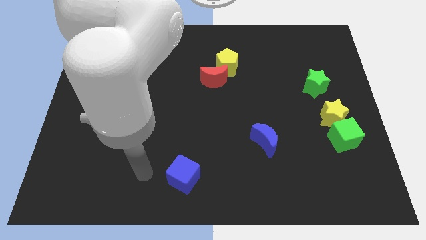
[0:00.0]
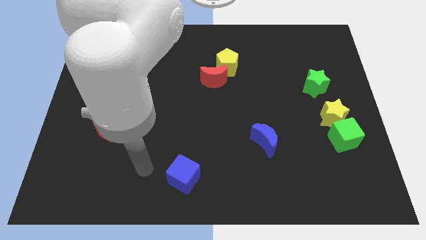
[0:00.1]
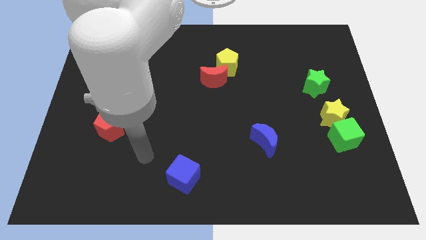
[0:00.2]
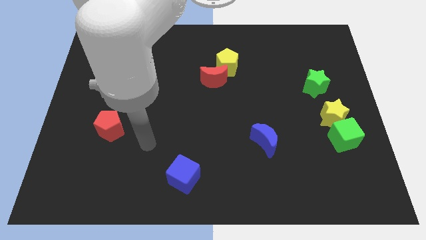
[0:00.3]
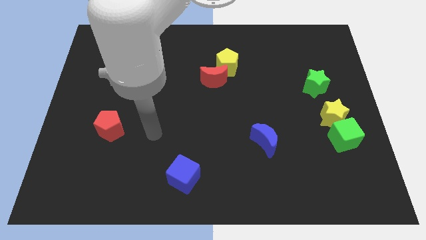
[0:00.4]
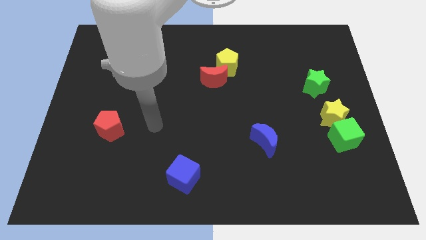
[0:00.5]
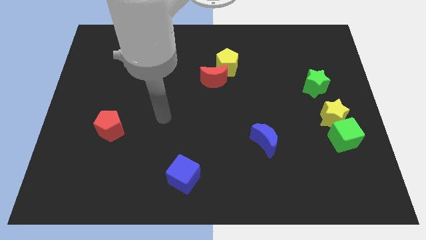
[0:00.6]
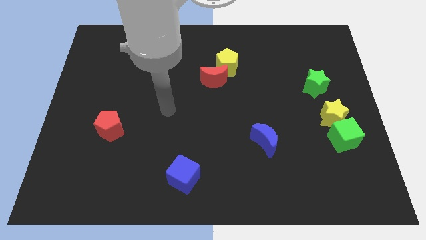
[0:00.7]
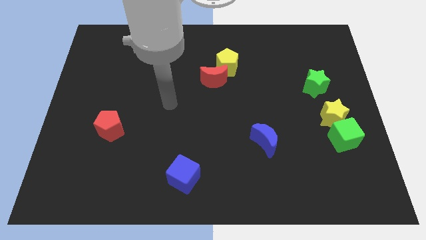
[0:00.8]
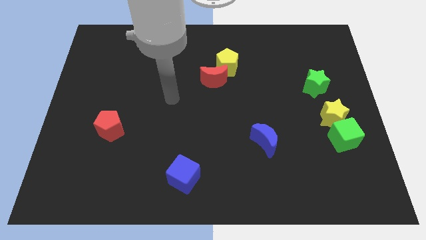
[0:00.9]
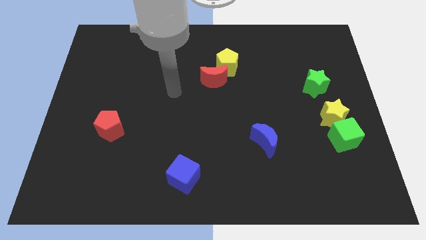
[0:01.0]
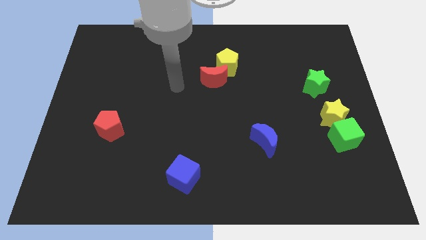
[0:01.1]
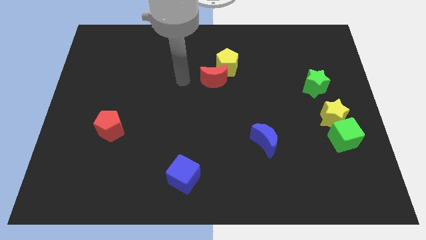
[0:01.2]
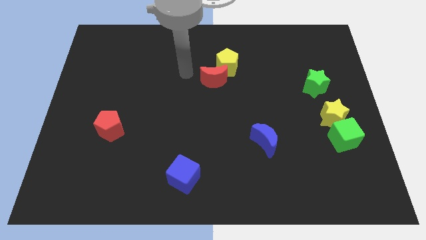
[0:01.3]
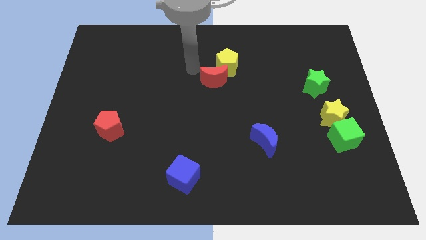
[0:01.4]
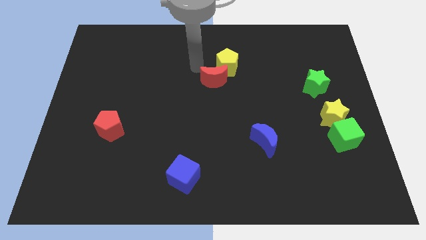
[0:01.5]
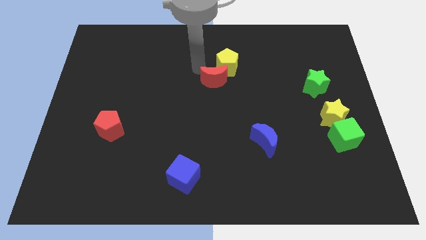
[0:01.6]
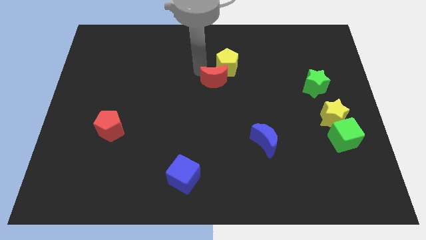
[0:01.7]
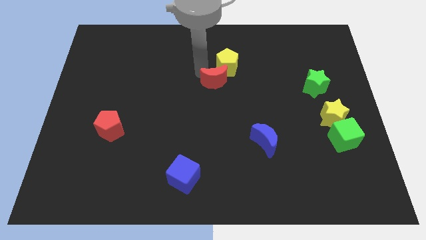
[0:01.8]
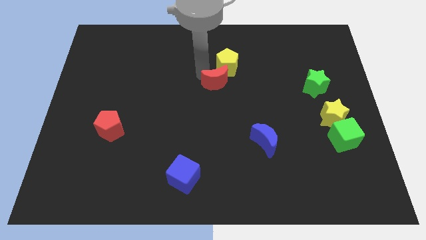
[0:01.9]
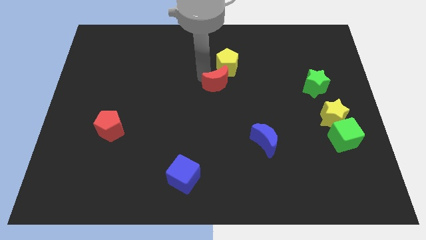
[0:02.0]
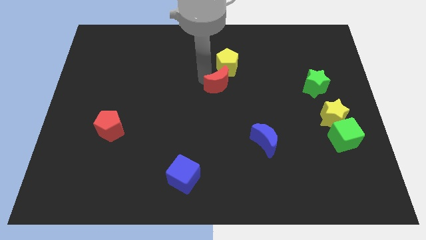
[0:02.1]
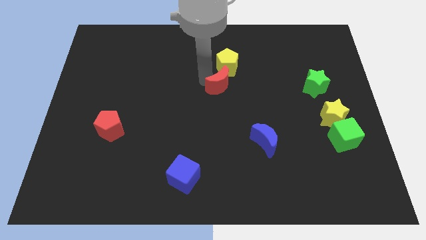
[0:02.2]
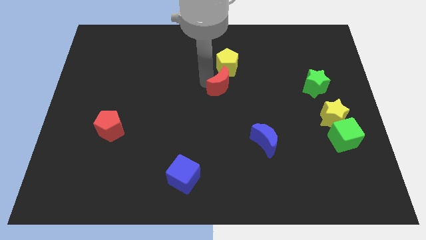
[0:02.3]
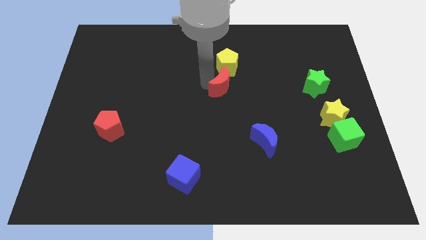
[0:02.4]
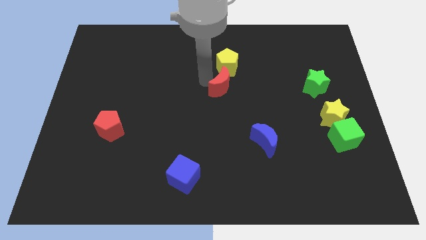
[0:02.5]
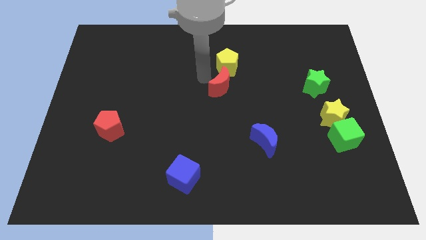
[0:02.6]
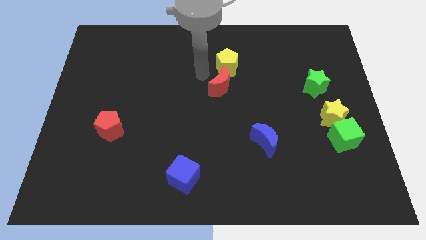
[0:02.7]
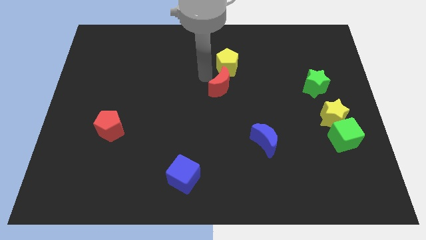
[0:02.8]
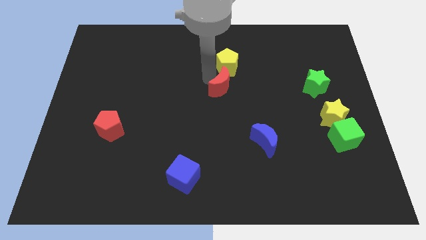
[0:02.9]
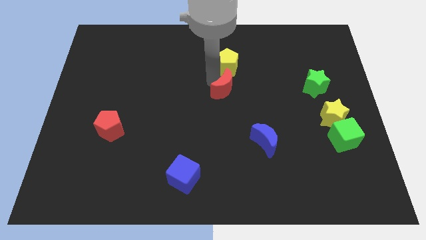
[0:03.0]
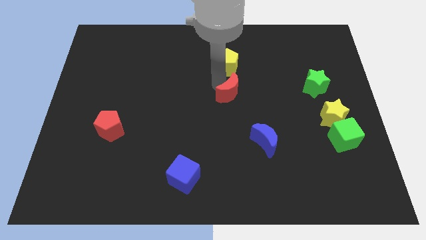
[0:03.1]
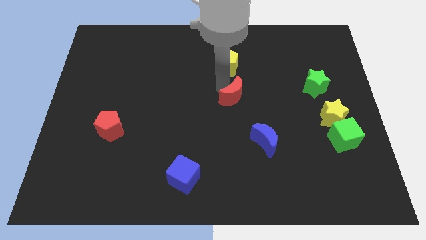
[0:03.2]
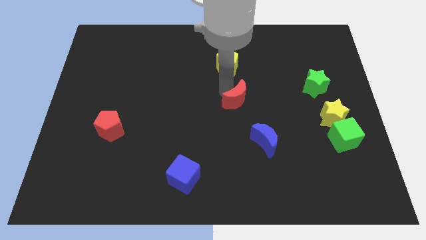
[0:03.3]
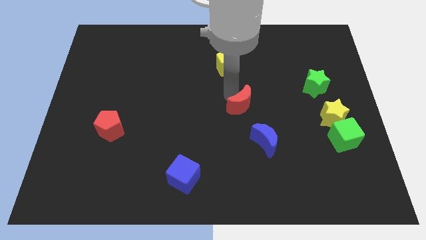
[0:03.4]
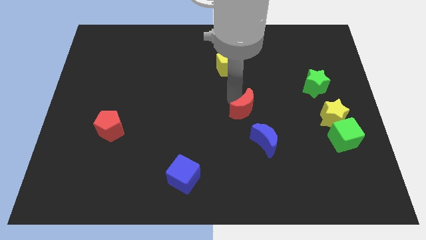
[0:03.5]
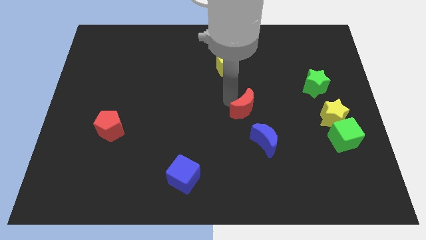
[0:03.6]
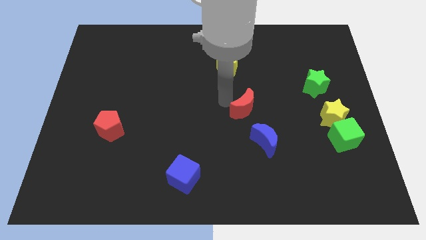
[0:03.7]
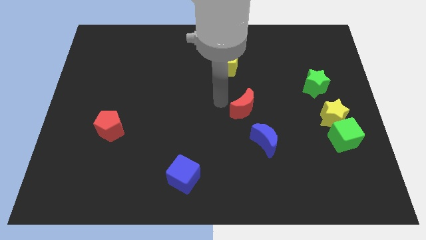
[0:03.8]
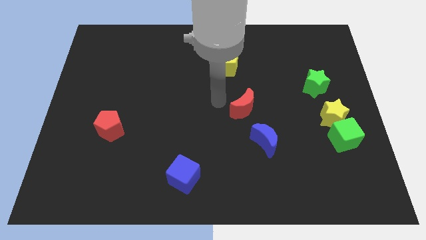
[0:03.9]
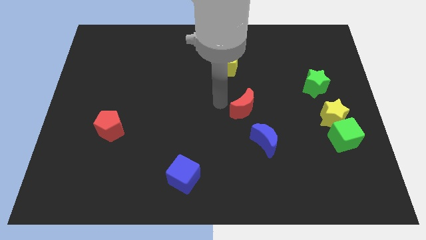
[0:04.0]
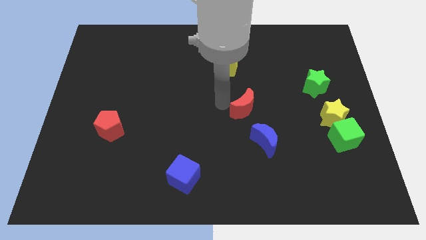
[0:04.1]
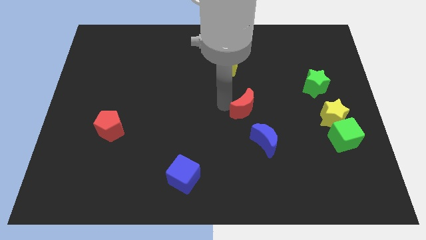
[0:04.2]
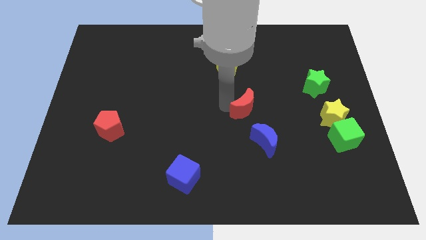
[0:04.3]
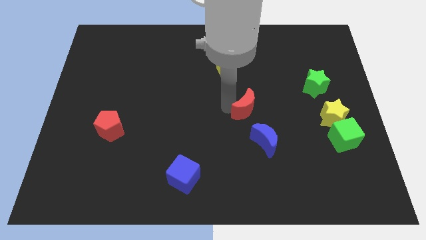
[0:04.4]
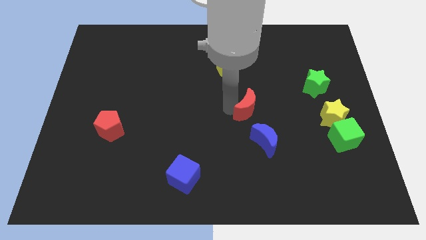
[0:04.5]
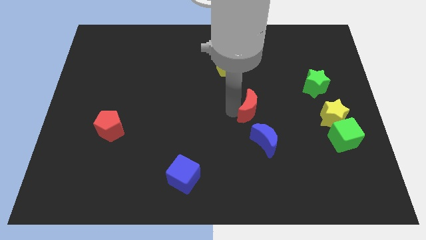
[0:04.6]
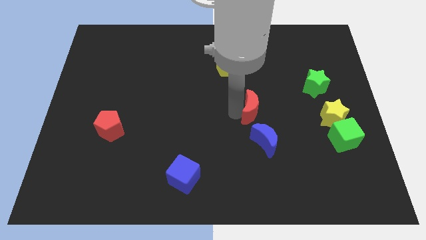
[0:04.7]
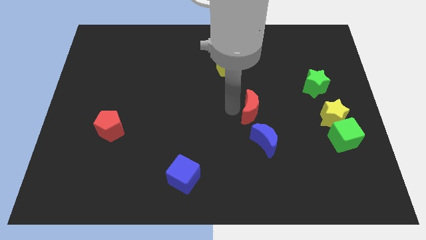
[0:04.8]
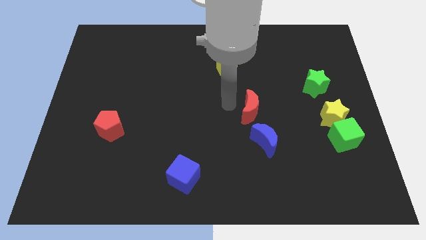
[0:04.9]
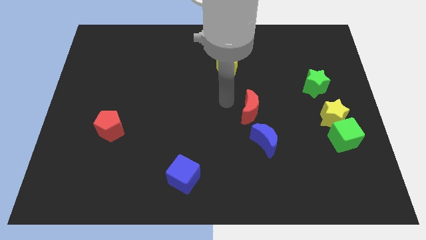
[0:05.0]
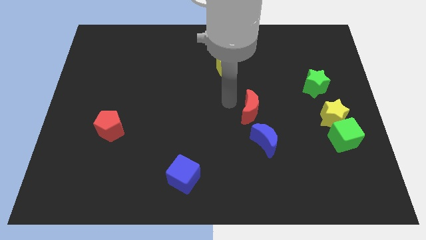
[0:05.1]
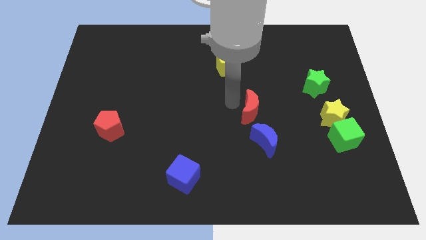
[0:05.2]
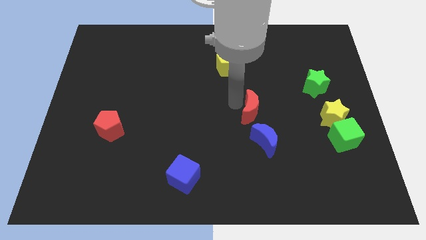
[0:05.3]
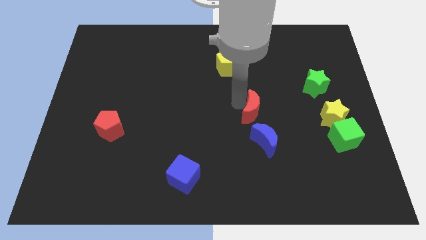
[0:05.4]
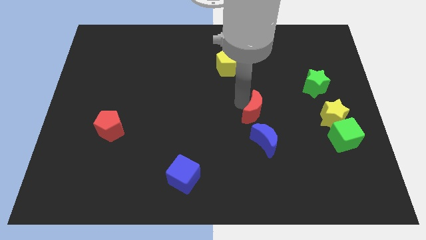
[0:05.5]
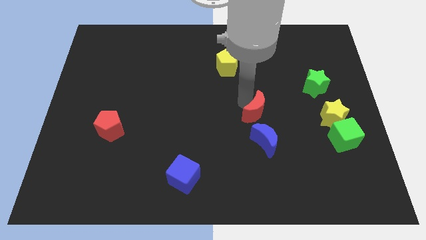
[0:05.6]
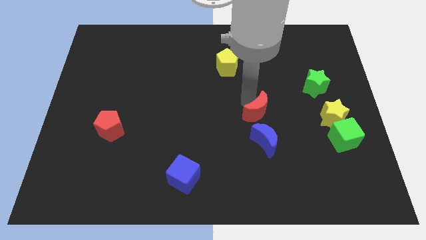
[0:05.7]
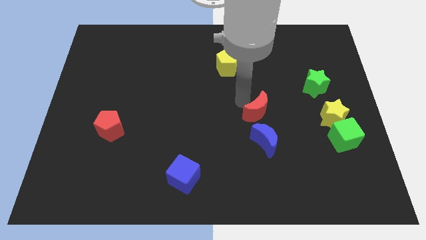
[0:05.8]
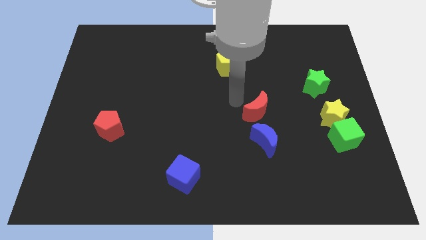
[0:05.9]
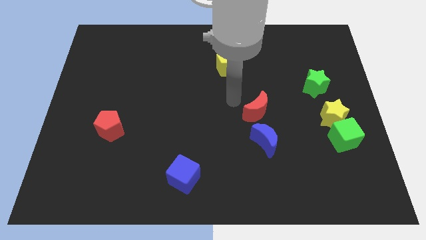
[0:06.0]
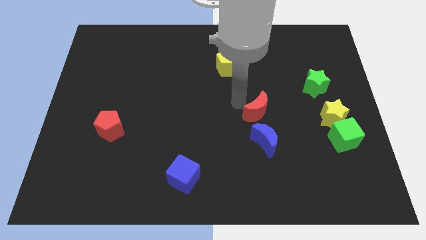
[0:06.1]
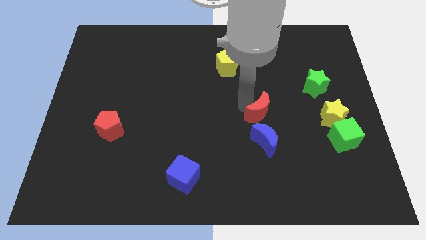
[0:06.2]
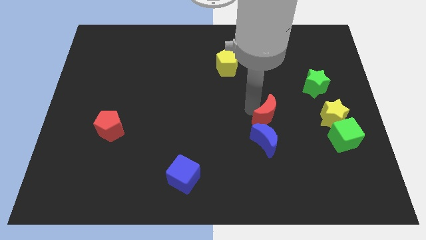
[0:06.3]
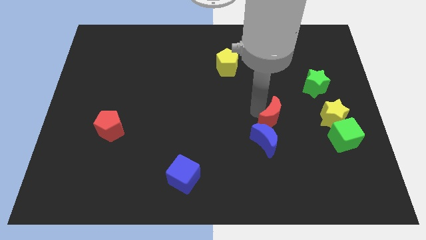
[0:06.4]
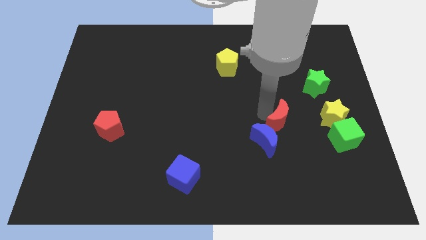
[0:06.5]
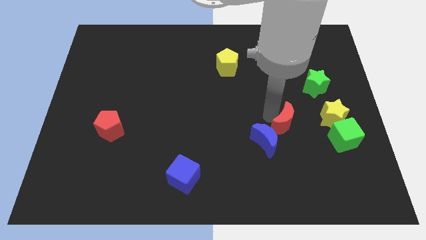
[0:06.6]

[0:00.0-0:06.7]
move the red moon down and then right

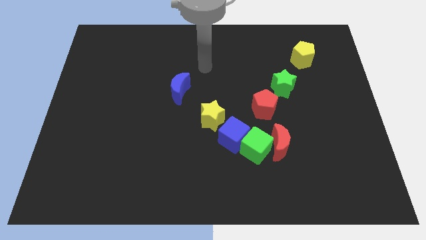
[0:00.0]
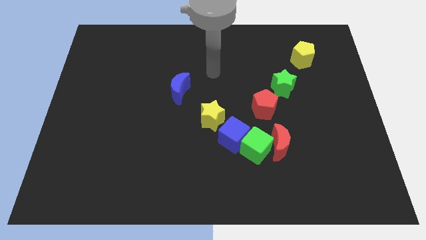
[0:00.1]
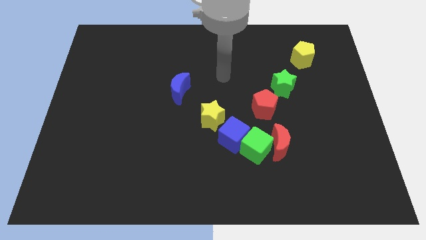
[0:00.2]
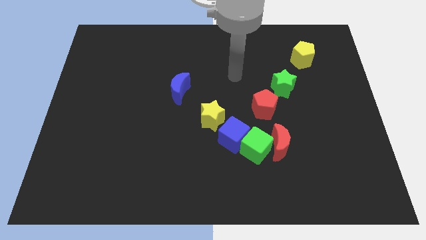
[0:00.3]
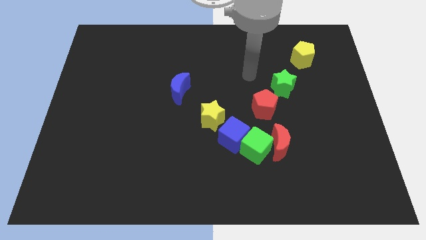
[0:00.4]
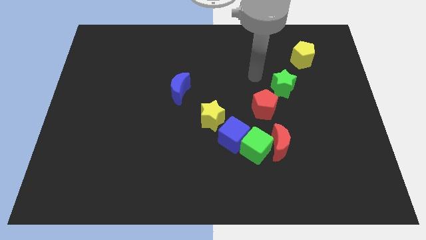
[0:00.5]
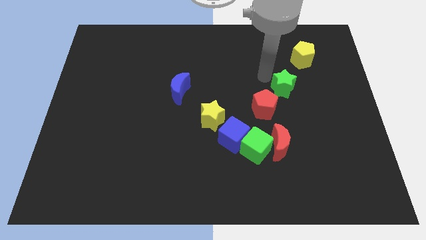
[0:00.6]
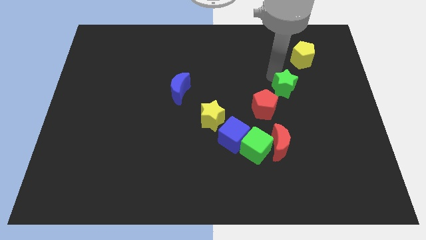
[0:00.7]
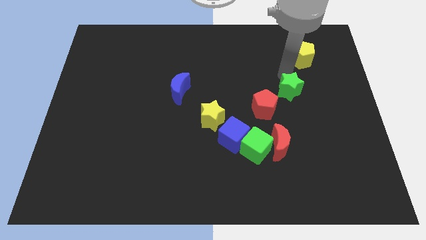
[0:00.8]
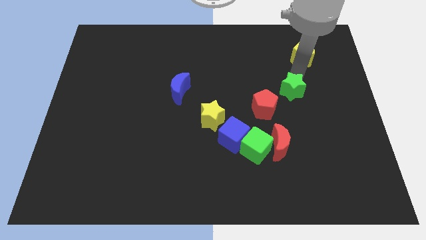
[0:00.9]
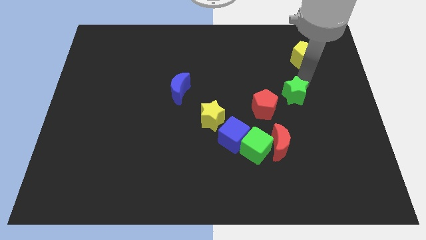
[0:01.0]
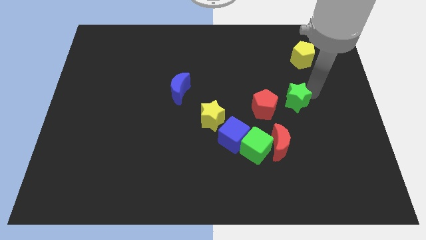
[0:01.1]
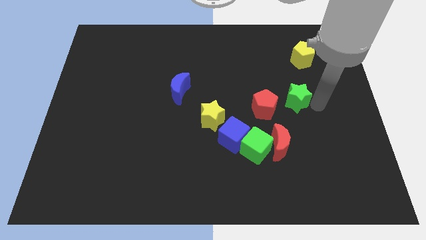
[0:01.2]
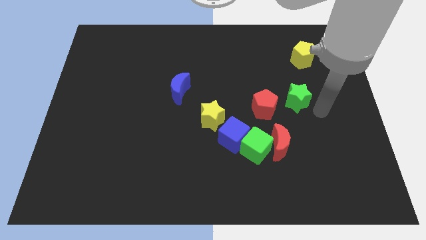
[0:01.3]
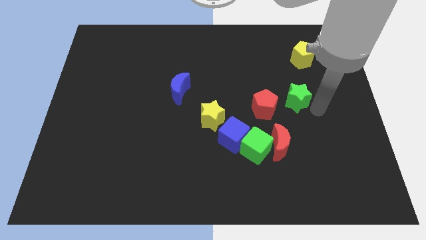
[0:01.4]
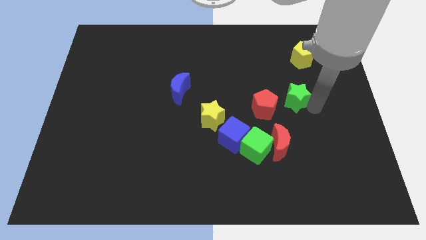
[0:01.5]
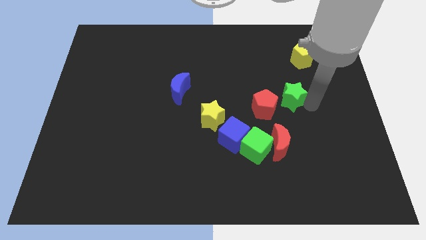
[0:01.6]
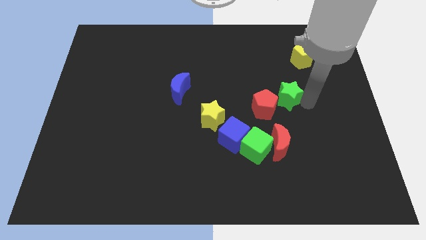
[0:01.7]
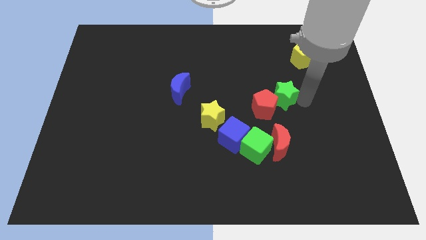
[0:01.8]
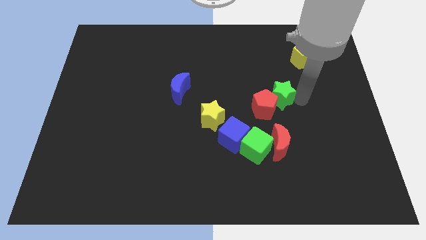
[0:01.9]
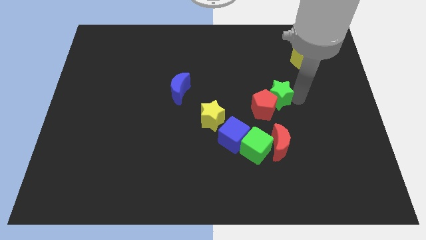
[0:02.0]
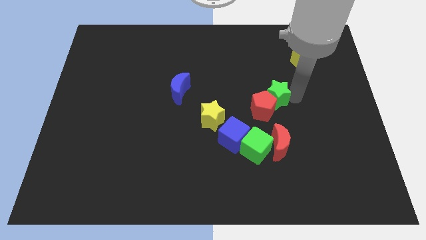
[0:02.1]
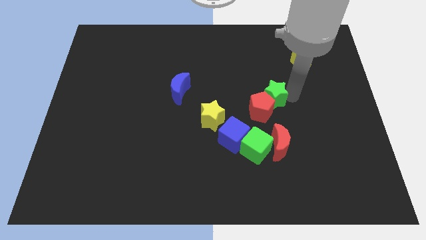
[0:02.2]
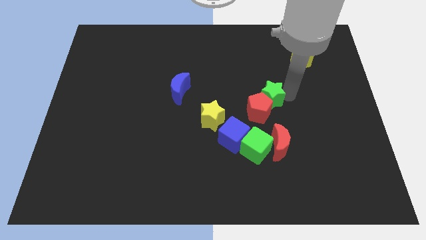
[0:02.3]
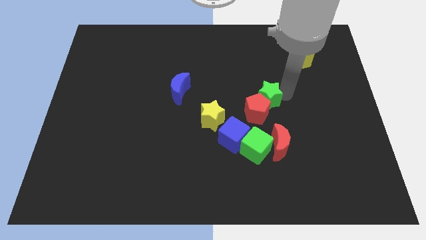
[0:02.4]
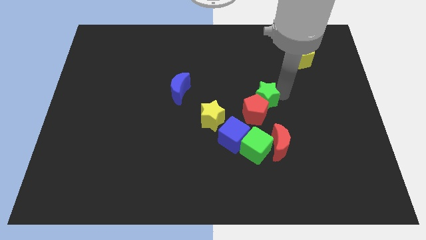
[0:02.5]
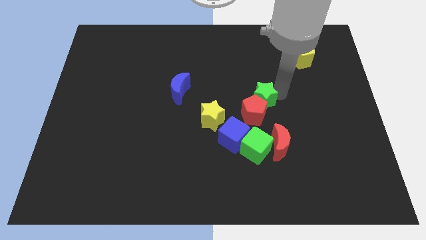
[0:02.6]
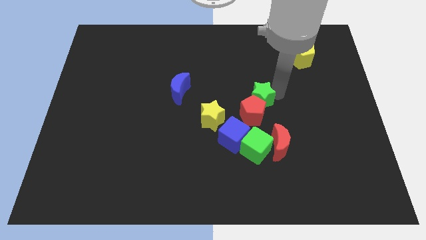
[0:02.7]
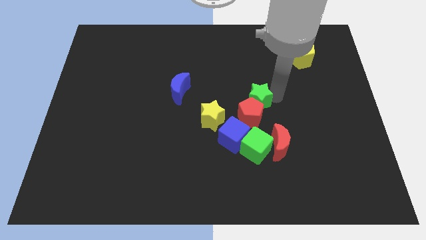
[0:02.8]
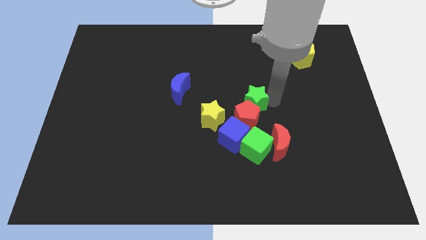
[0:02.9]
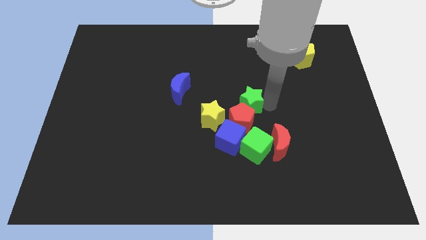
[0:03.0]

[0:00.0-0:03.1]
slide the green star slightly to the left
